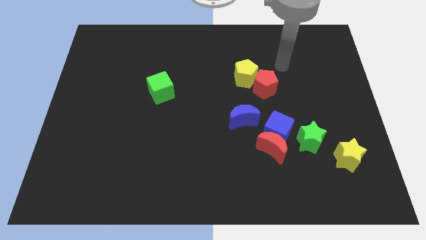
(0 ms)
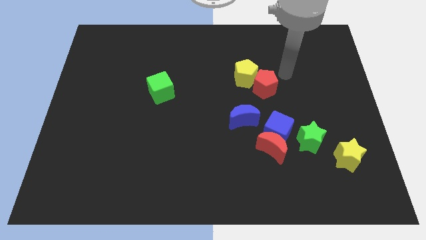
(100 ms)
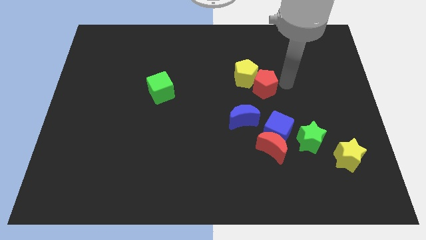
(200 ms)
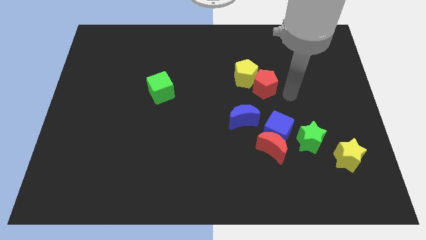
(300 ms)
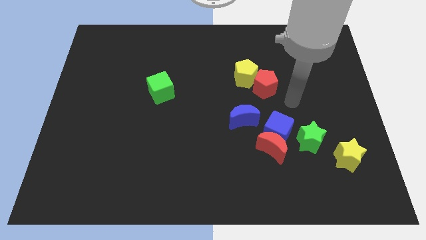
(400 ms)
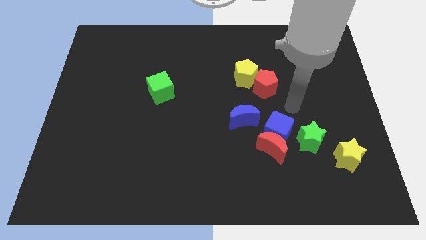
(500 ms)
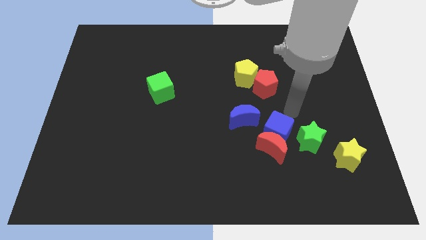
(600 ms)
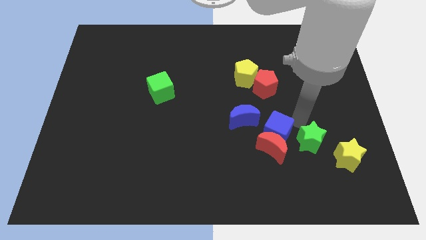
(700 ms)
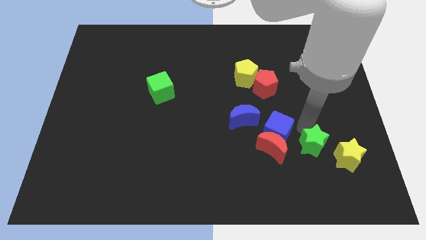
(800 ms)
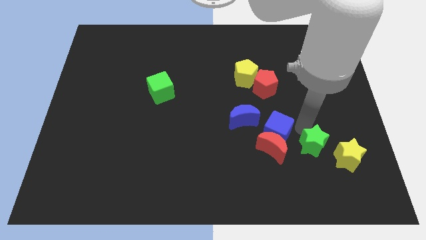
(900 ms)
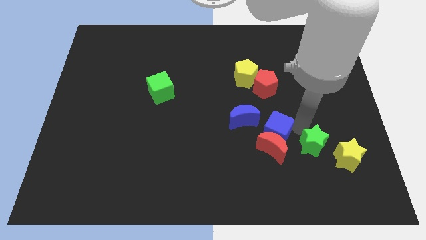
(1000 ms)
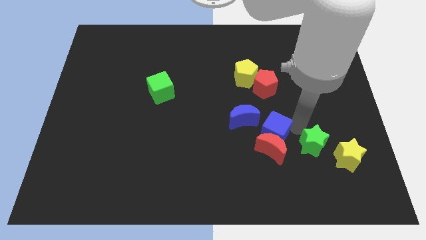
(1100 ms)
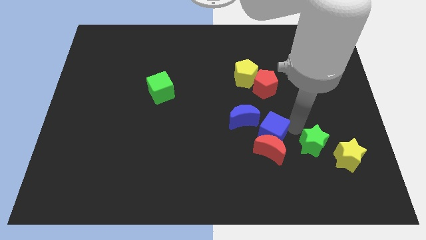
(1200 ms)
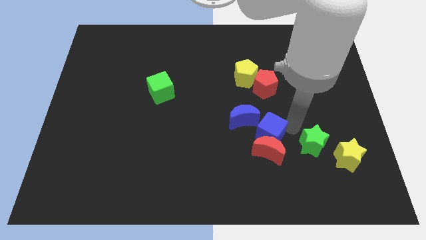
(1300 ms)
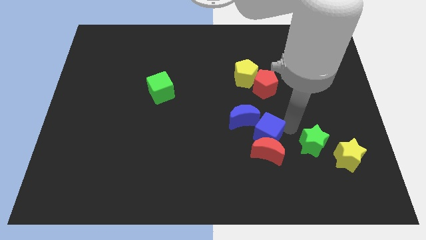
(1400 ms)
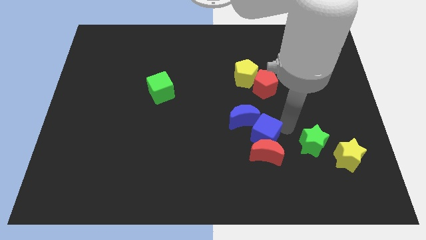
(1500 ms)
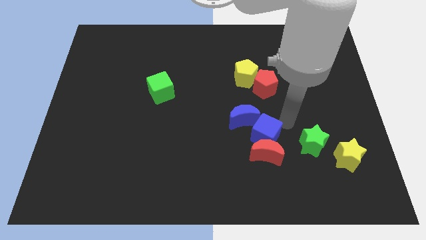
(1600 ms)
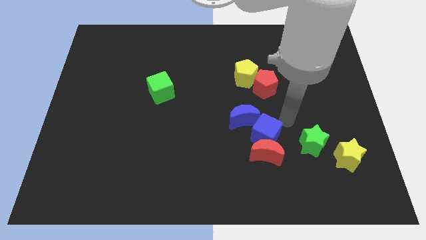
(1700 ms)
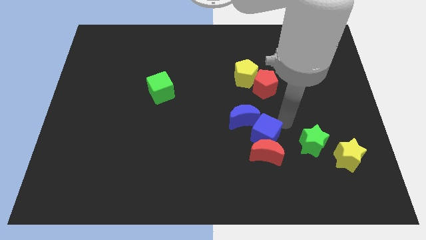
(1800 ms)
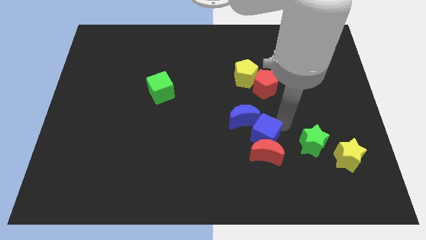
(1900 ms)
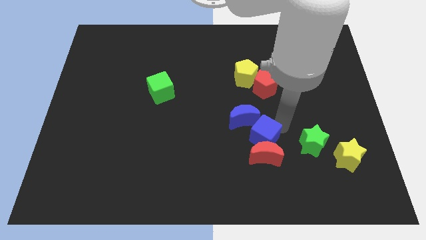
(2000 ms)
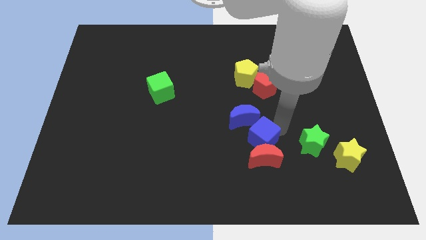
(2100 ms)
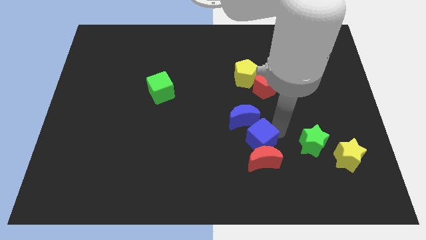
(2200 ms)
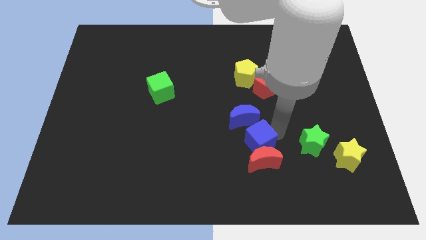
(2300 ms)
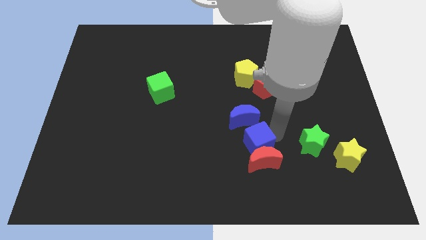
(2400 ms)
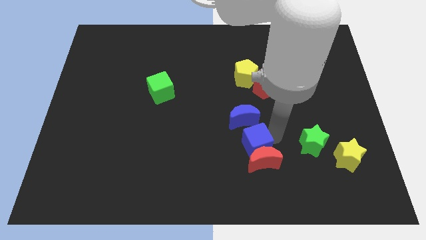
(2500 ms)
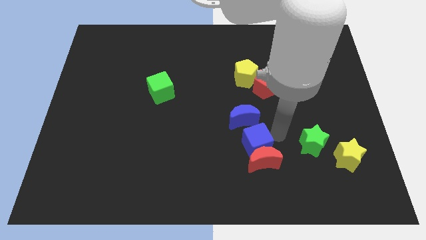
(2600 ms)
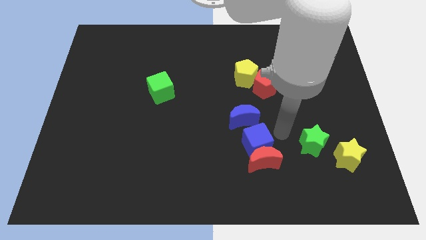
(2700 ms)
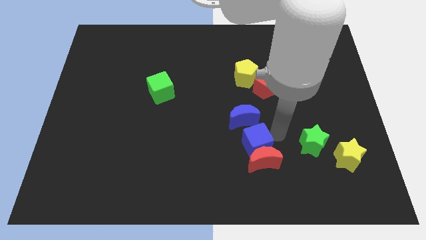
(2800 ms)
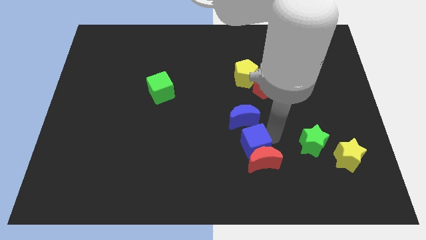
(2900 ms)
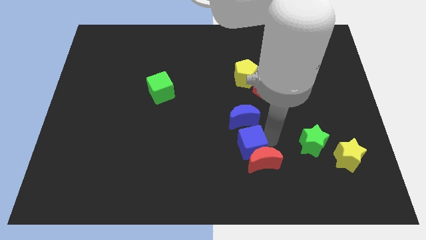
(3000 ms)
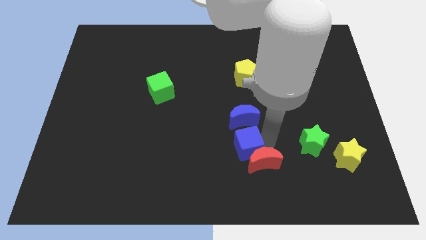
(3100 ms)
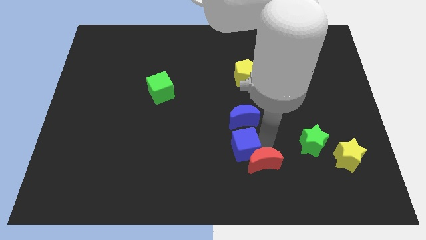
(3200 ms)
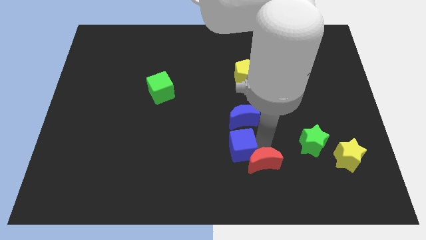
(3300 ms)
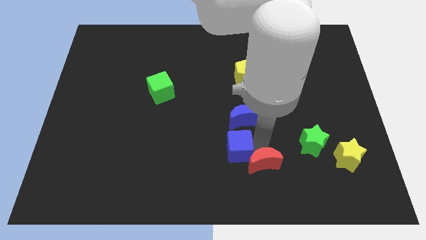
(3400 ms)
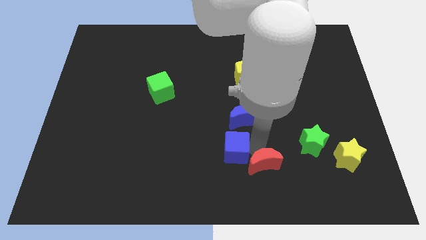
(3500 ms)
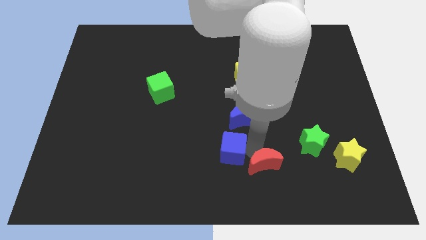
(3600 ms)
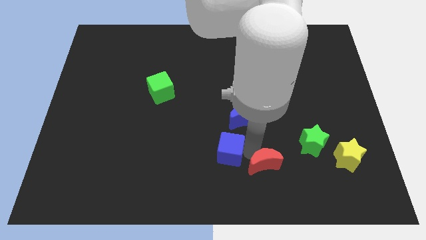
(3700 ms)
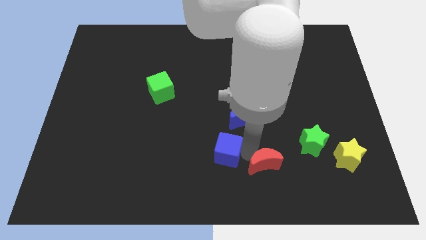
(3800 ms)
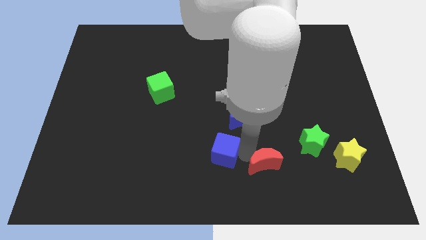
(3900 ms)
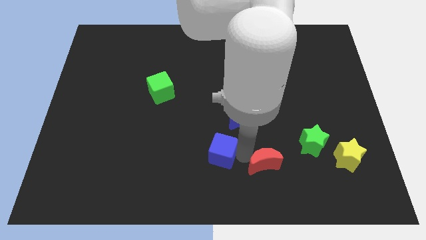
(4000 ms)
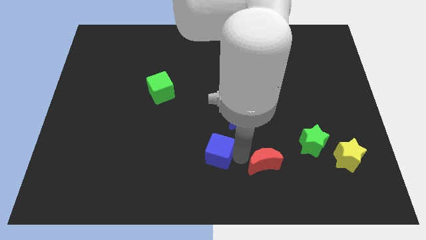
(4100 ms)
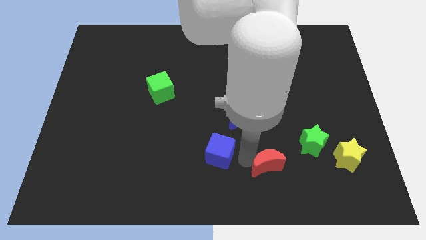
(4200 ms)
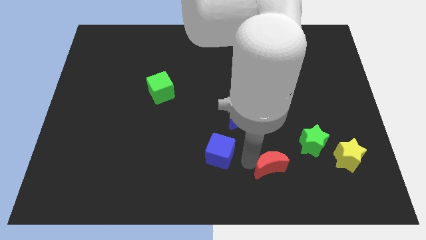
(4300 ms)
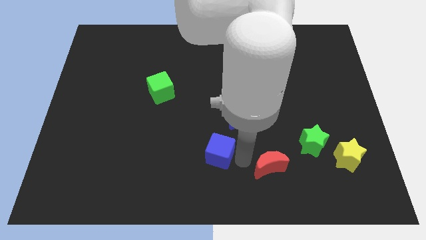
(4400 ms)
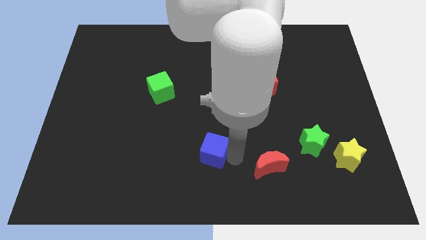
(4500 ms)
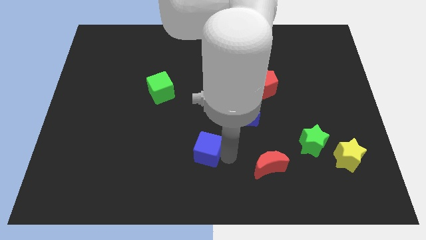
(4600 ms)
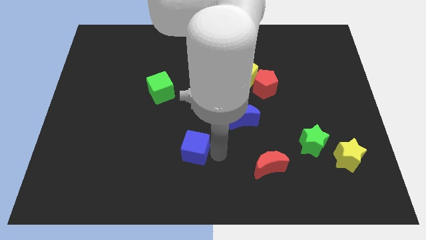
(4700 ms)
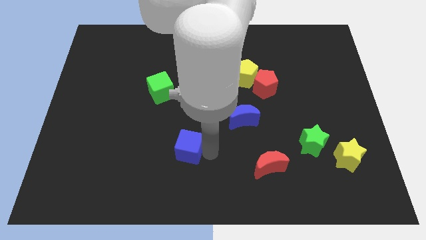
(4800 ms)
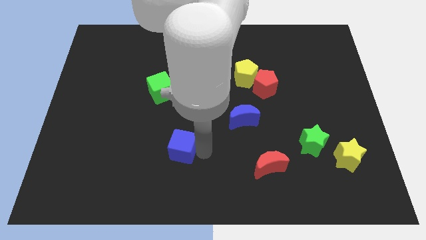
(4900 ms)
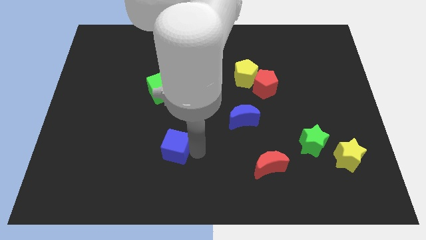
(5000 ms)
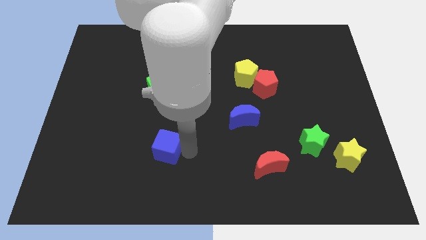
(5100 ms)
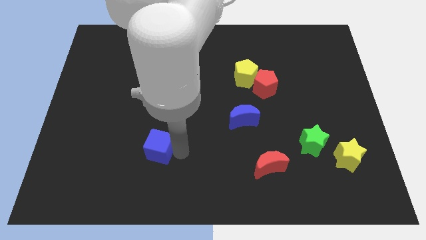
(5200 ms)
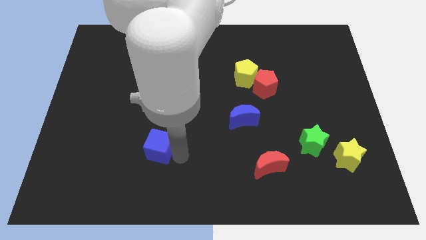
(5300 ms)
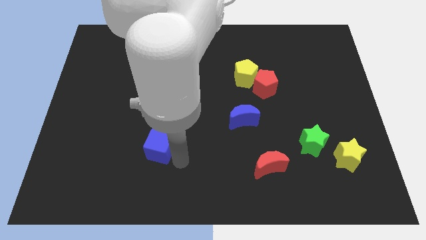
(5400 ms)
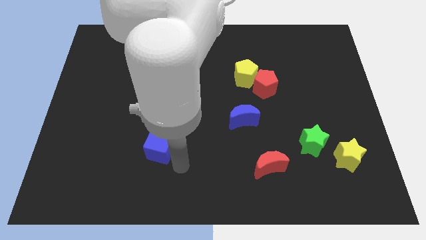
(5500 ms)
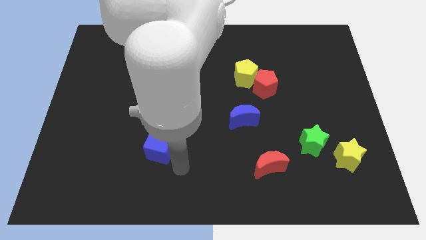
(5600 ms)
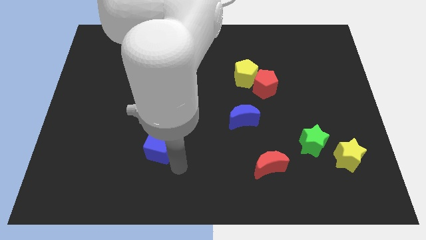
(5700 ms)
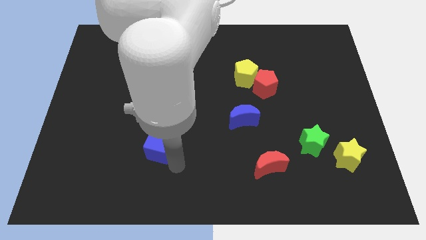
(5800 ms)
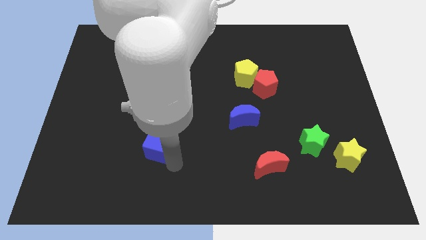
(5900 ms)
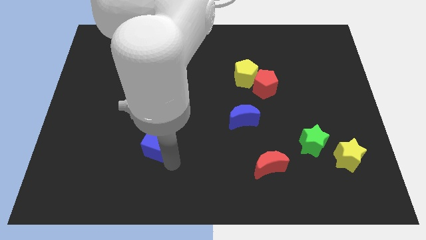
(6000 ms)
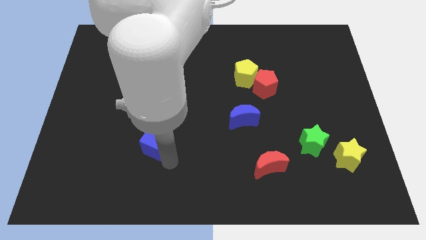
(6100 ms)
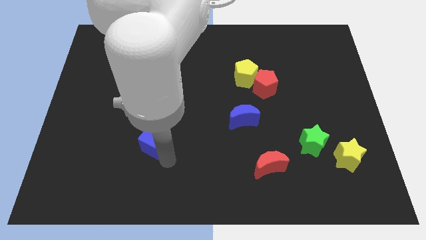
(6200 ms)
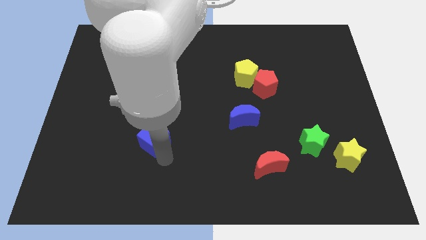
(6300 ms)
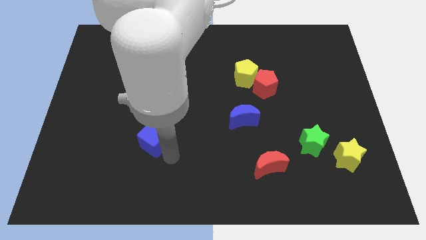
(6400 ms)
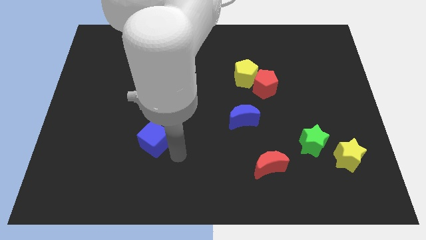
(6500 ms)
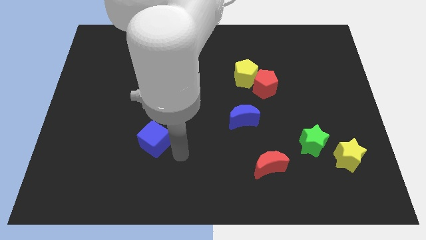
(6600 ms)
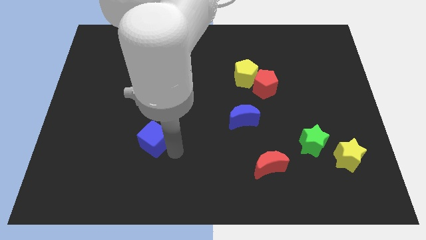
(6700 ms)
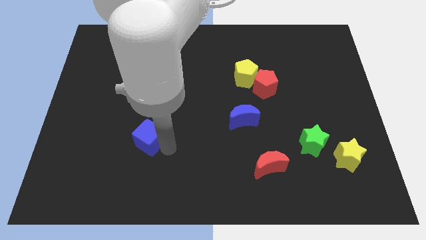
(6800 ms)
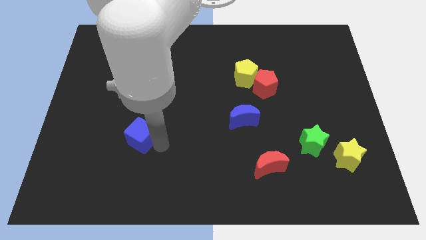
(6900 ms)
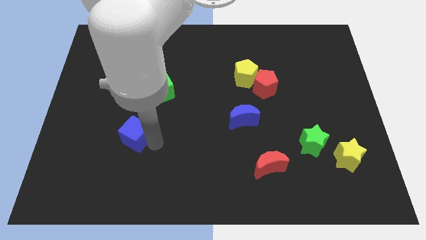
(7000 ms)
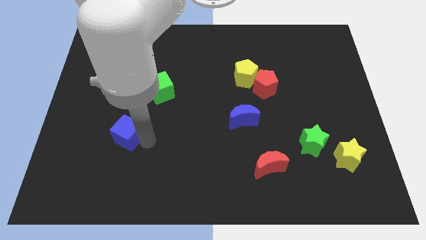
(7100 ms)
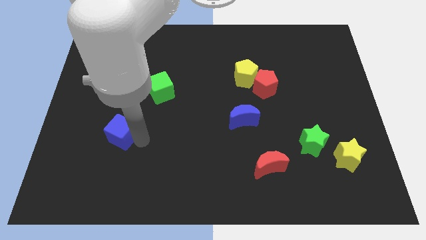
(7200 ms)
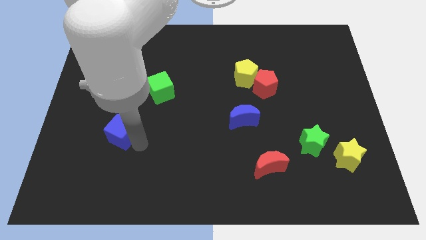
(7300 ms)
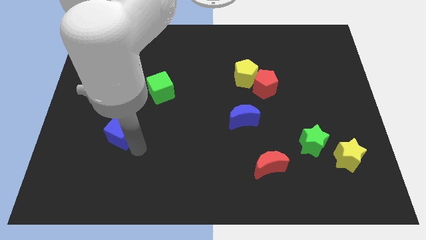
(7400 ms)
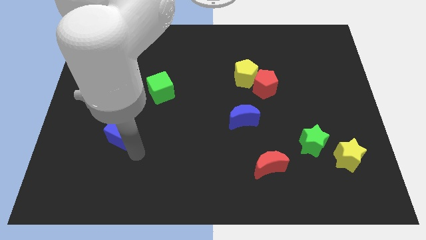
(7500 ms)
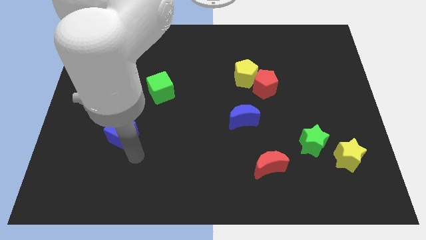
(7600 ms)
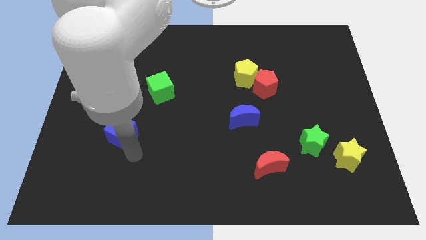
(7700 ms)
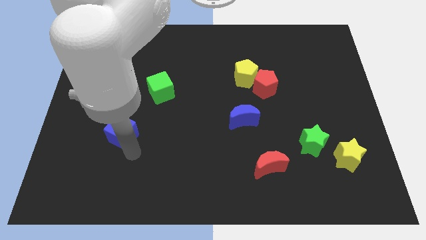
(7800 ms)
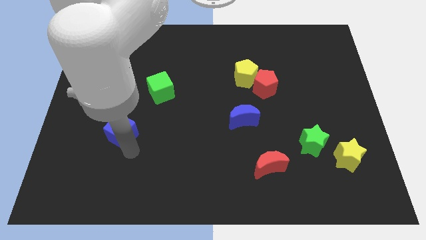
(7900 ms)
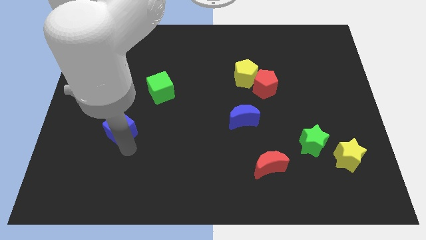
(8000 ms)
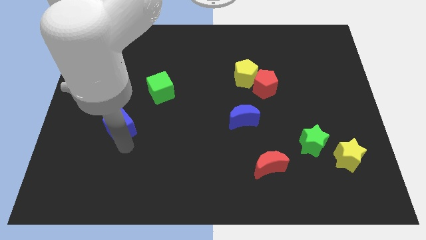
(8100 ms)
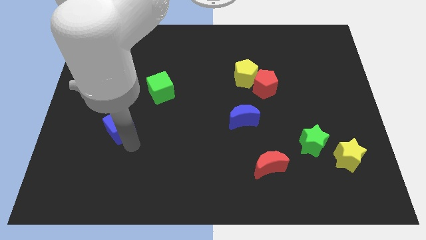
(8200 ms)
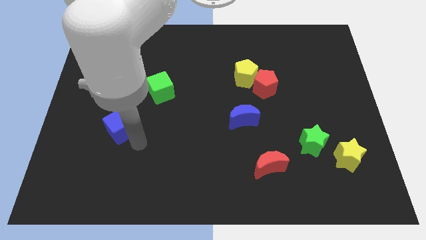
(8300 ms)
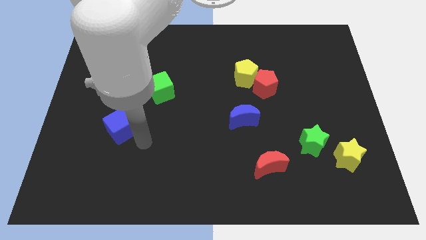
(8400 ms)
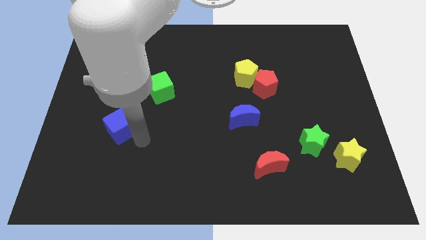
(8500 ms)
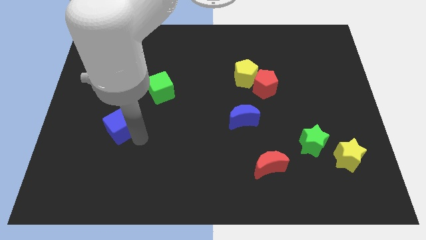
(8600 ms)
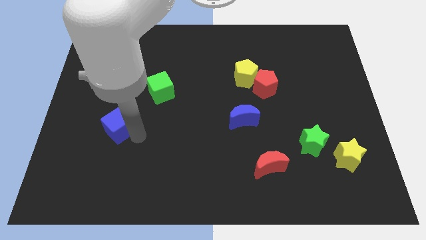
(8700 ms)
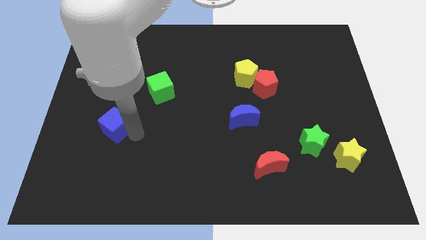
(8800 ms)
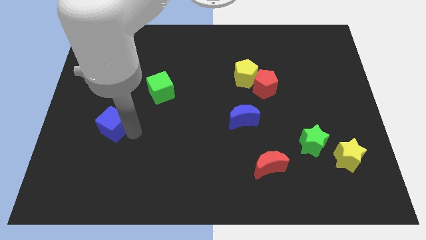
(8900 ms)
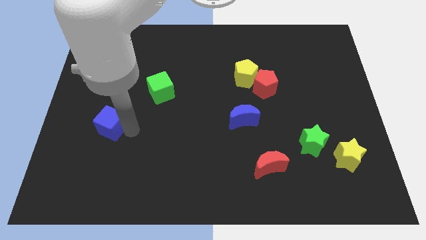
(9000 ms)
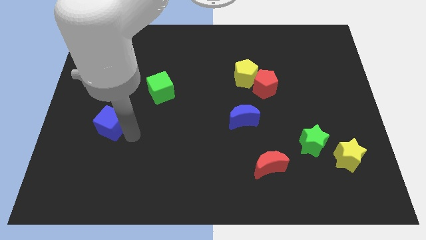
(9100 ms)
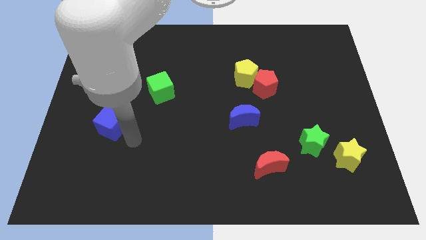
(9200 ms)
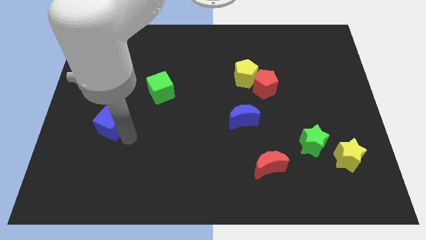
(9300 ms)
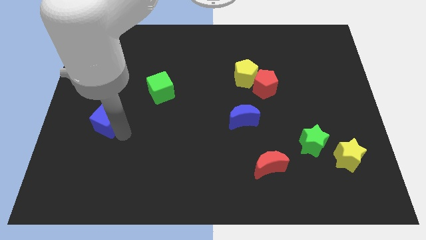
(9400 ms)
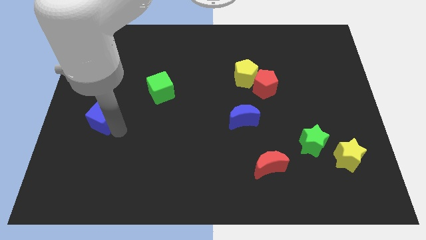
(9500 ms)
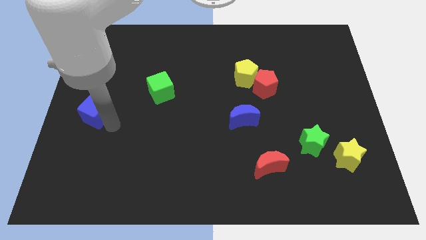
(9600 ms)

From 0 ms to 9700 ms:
move the blue cube to the center left
